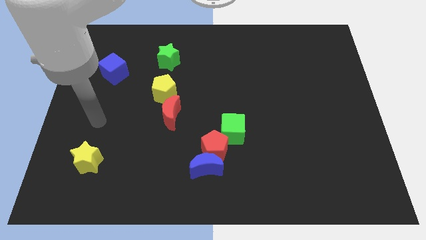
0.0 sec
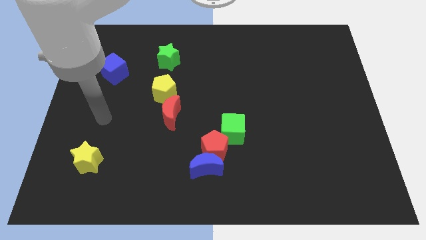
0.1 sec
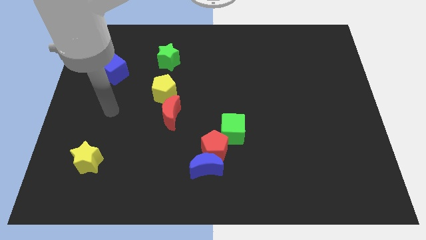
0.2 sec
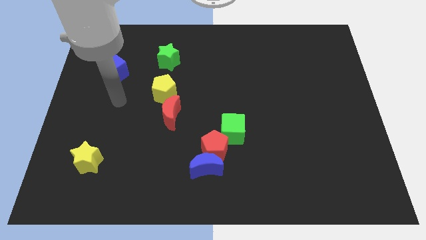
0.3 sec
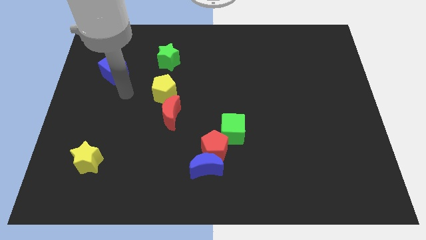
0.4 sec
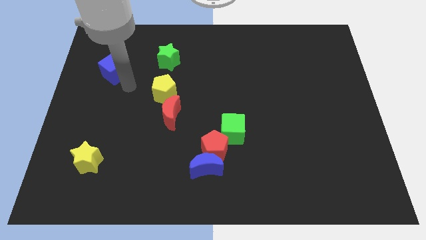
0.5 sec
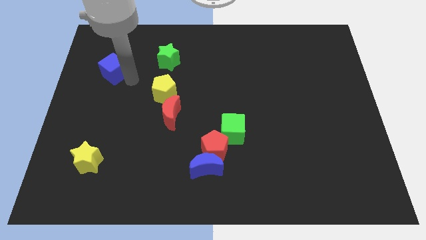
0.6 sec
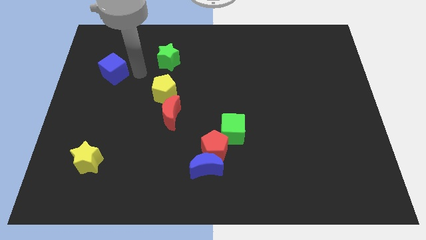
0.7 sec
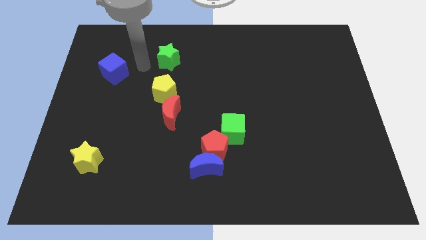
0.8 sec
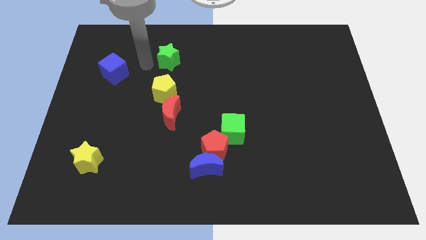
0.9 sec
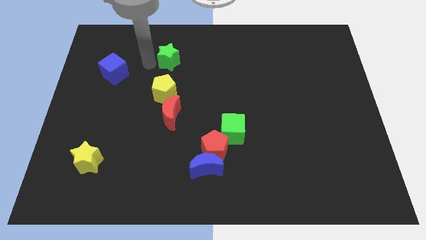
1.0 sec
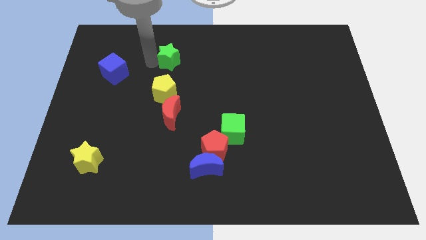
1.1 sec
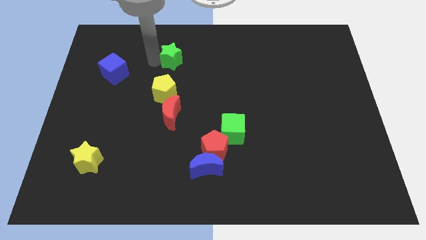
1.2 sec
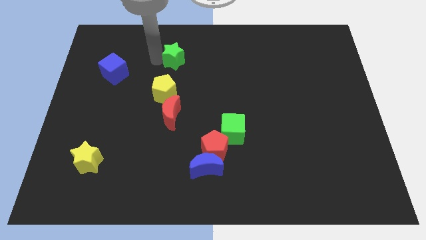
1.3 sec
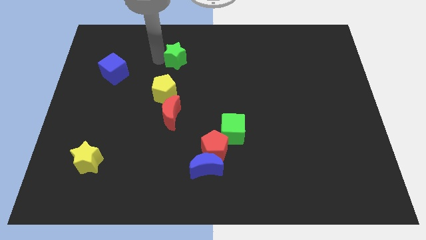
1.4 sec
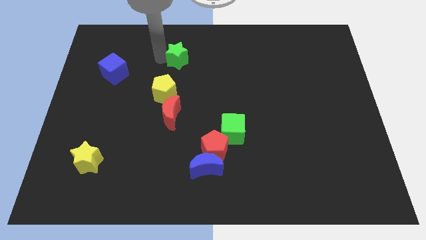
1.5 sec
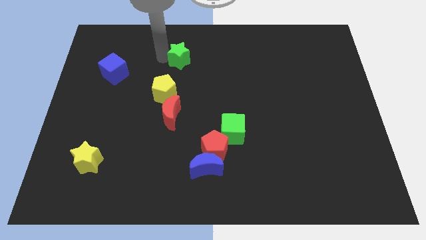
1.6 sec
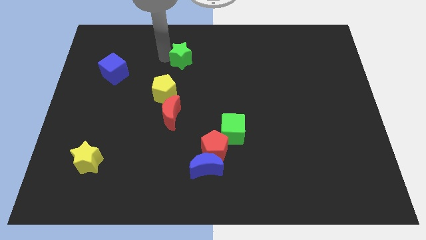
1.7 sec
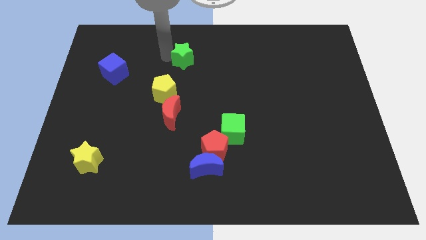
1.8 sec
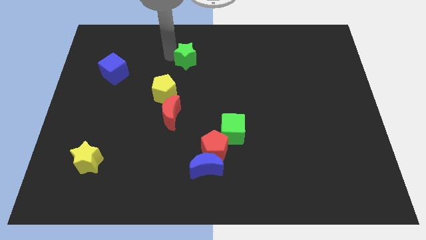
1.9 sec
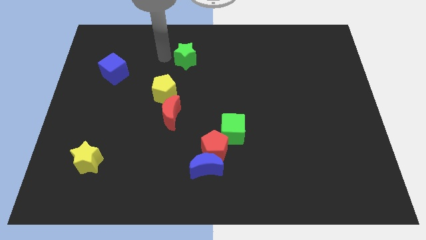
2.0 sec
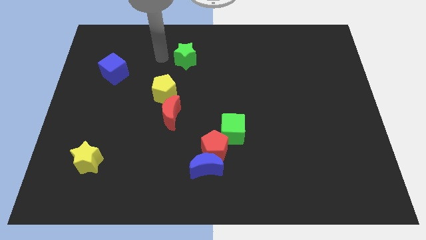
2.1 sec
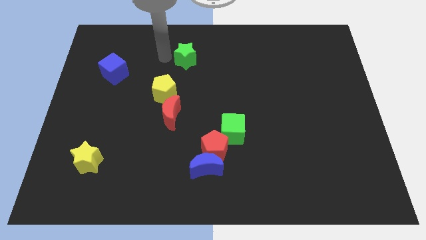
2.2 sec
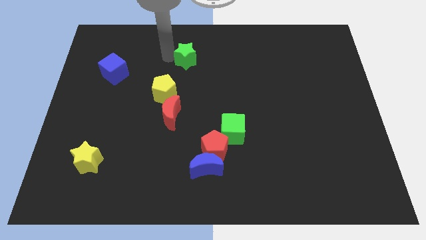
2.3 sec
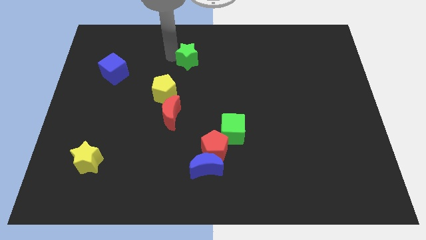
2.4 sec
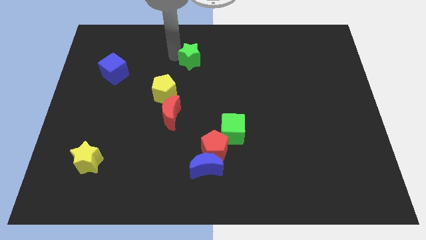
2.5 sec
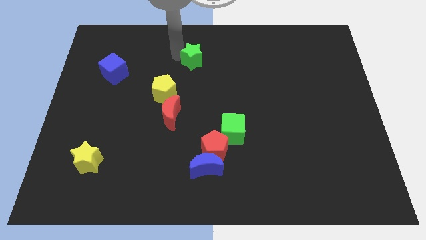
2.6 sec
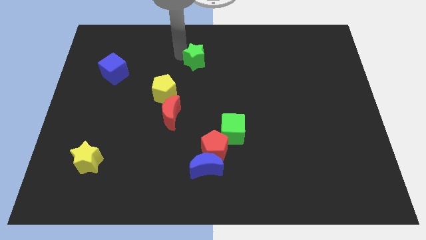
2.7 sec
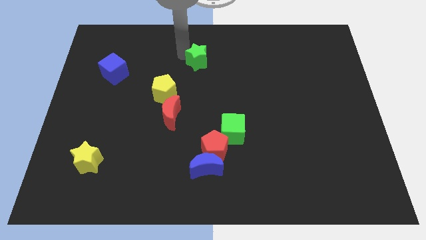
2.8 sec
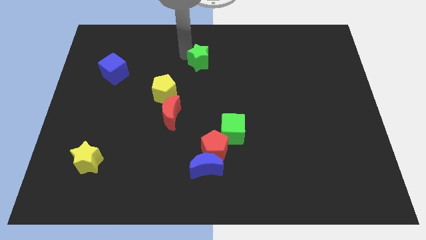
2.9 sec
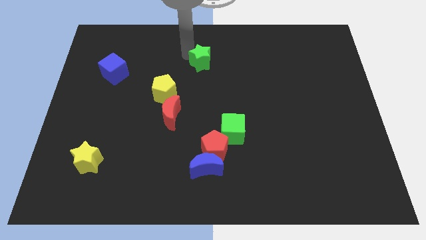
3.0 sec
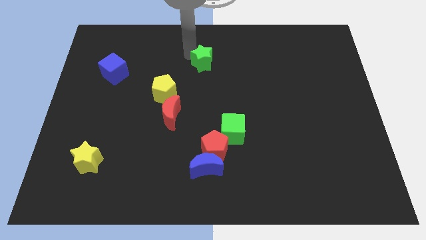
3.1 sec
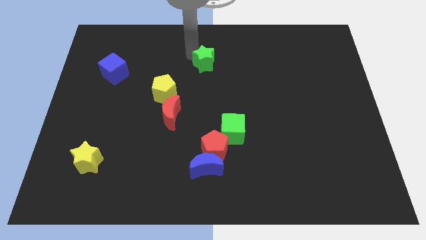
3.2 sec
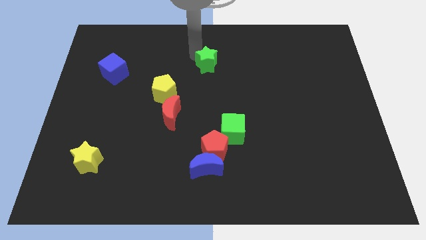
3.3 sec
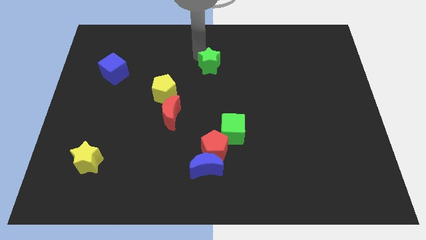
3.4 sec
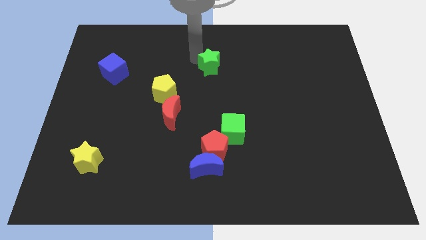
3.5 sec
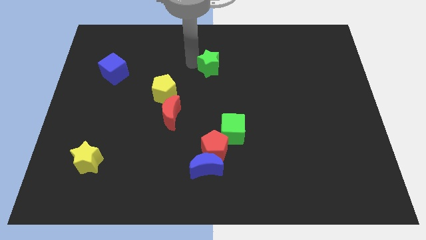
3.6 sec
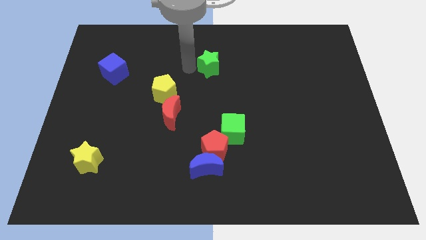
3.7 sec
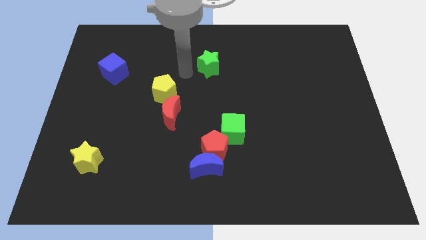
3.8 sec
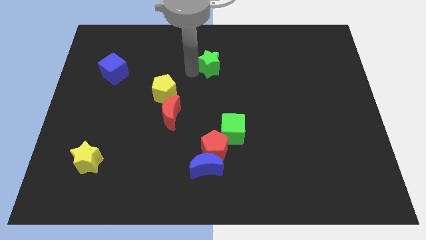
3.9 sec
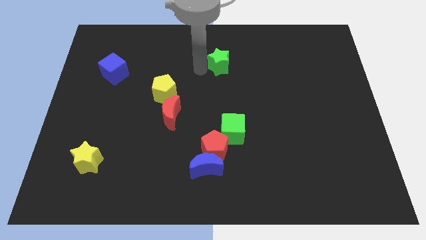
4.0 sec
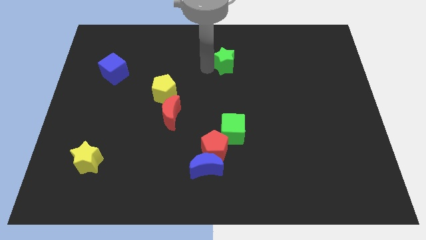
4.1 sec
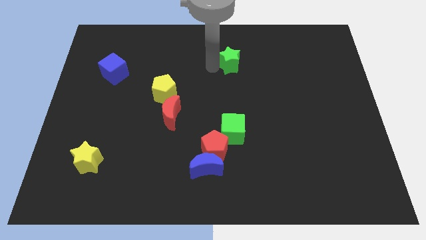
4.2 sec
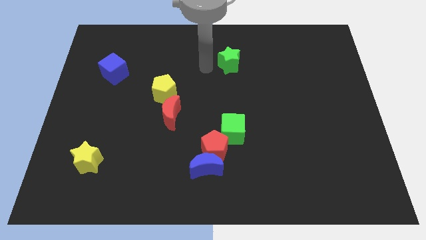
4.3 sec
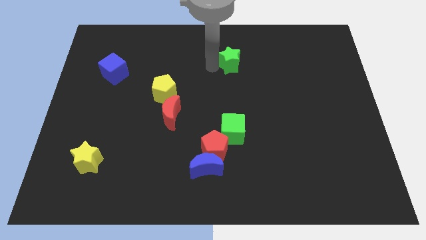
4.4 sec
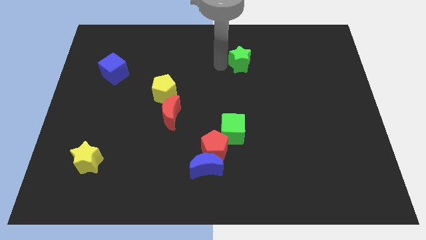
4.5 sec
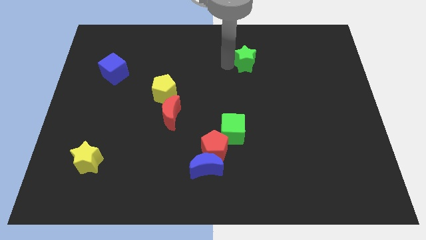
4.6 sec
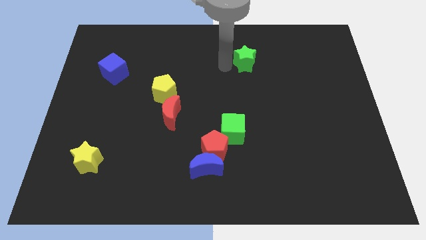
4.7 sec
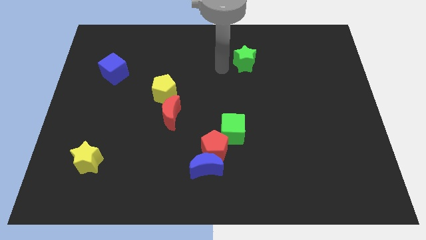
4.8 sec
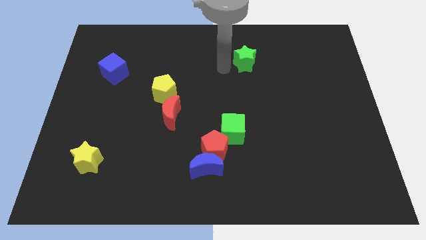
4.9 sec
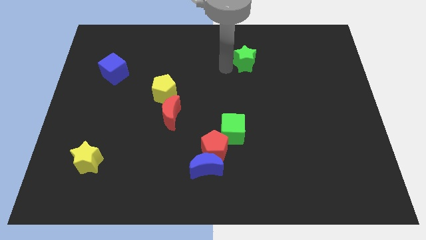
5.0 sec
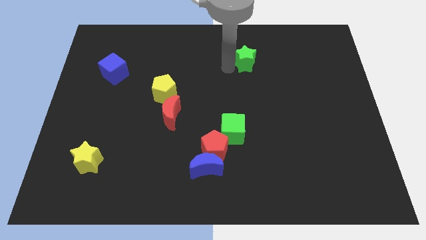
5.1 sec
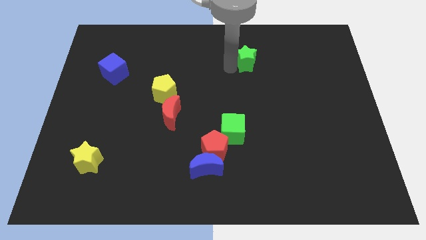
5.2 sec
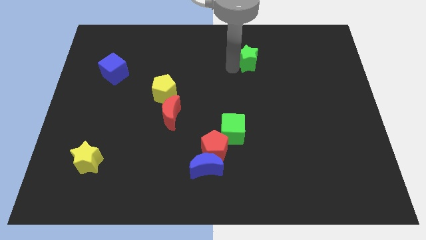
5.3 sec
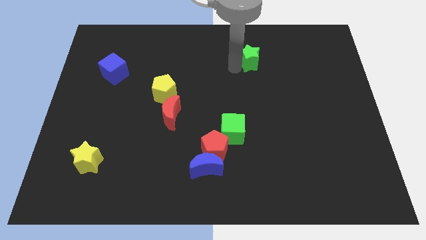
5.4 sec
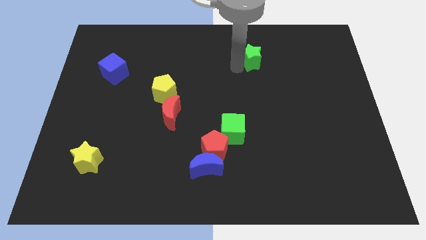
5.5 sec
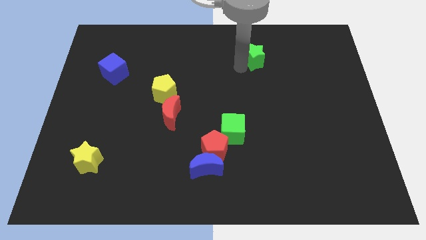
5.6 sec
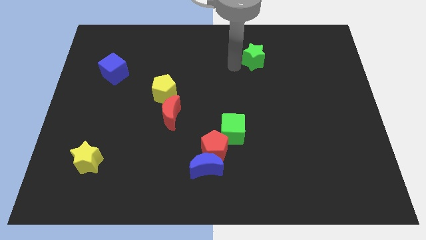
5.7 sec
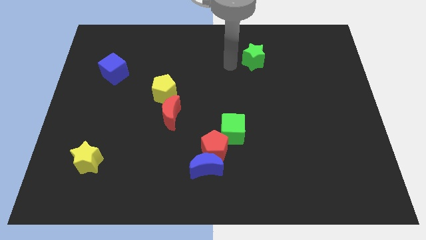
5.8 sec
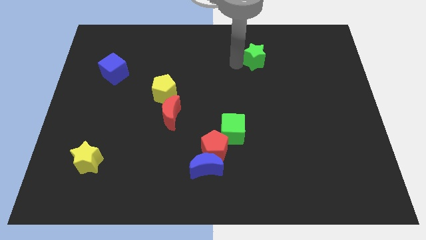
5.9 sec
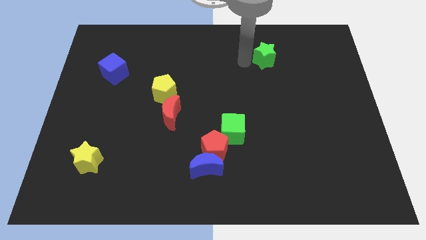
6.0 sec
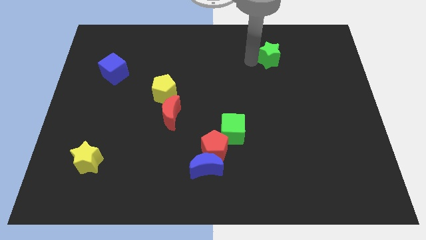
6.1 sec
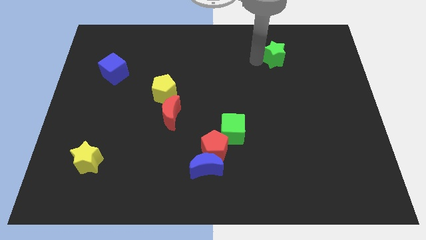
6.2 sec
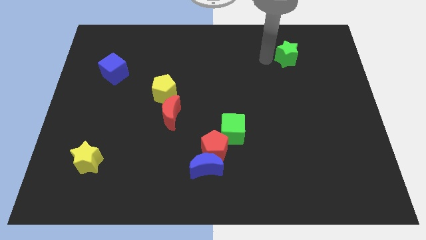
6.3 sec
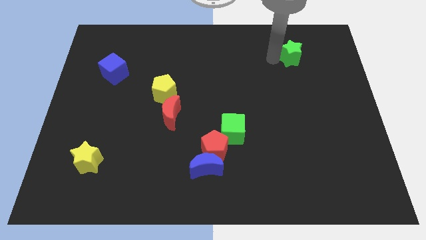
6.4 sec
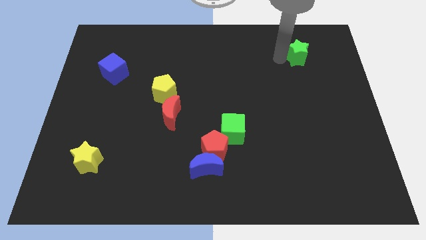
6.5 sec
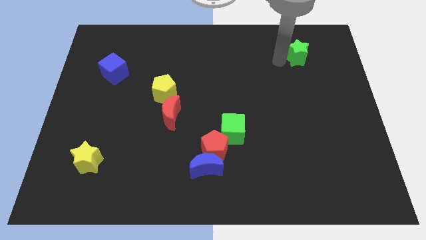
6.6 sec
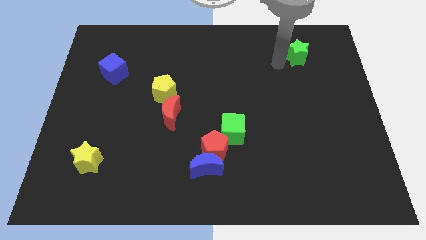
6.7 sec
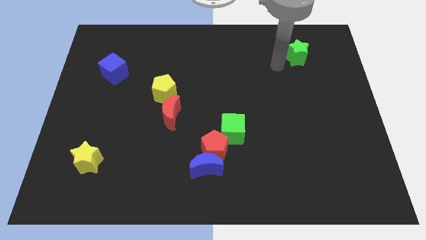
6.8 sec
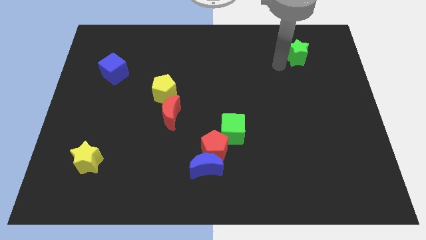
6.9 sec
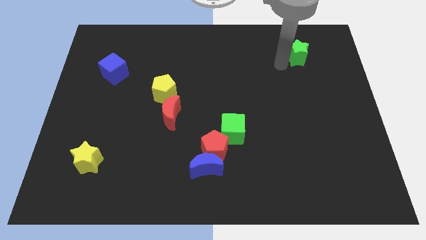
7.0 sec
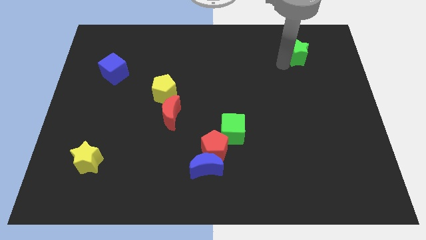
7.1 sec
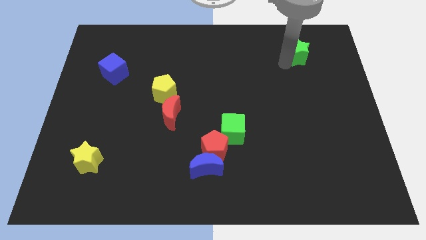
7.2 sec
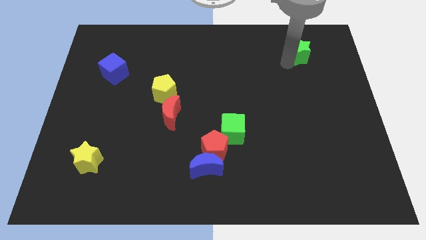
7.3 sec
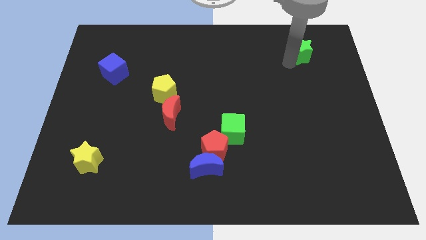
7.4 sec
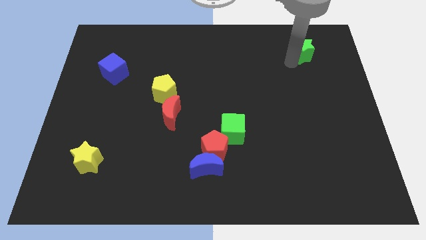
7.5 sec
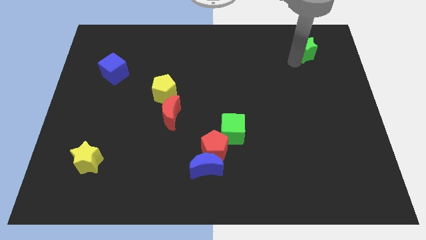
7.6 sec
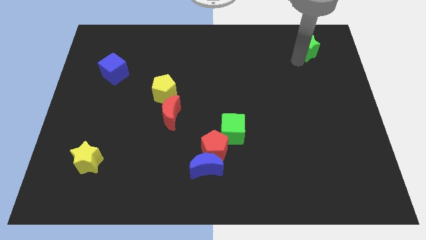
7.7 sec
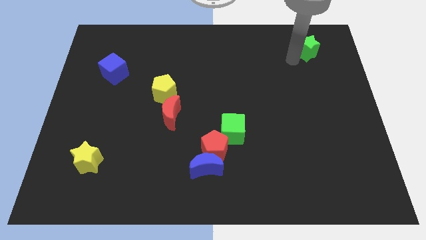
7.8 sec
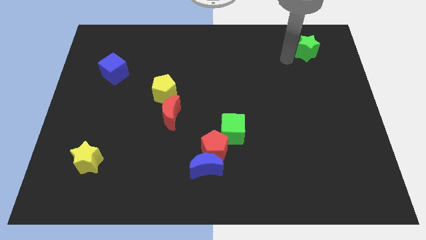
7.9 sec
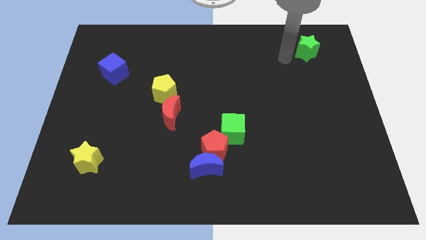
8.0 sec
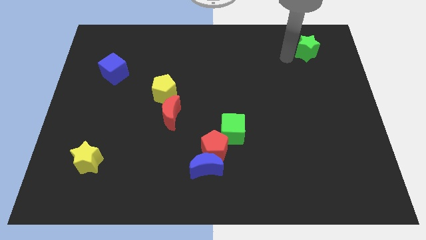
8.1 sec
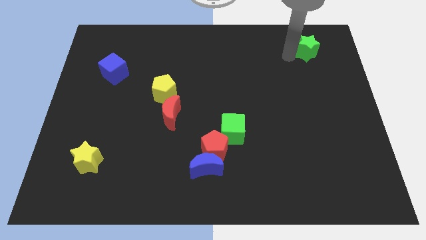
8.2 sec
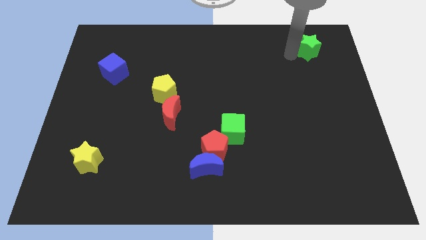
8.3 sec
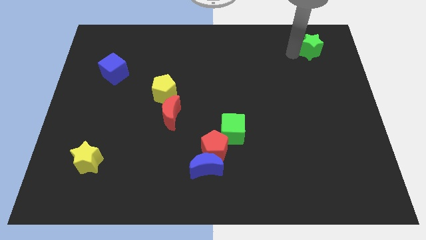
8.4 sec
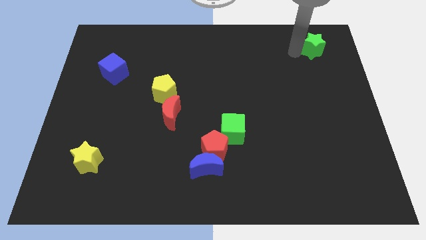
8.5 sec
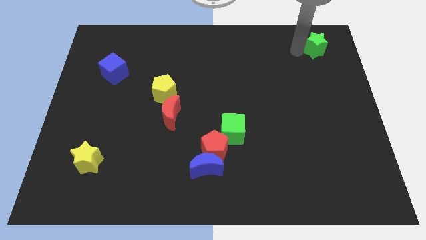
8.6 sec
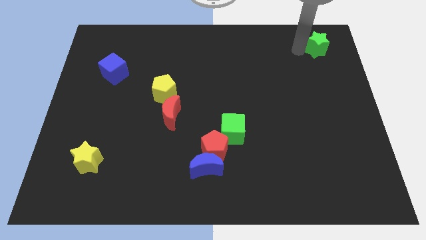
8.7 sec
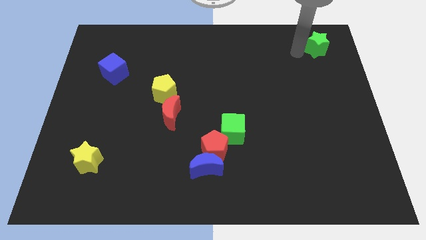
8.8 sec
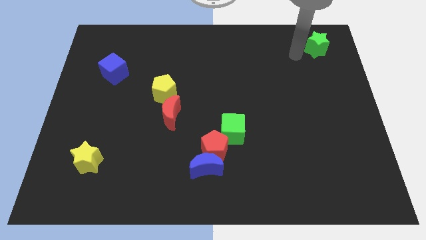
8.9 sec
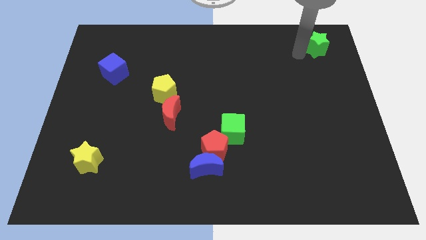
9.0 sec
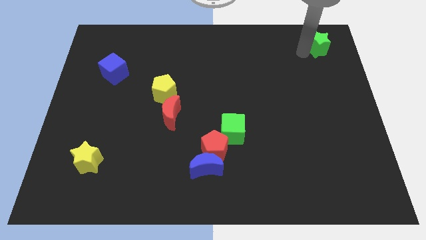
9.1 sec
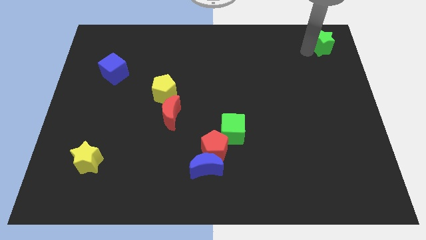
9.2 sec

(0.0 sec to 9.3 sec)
put the green star to the upper right corner
